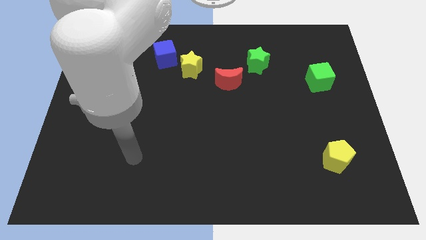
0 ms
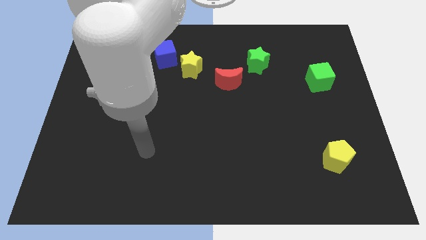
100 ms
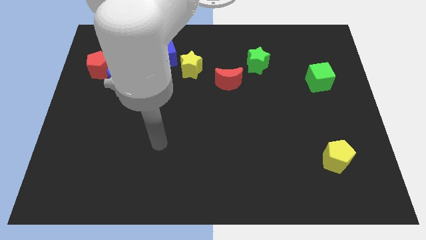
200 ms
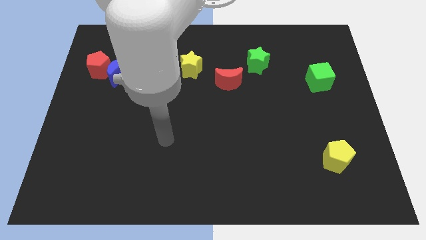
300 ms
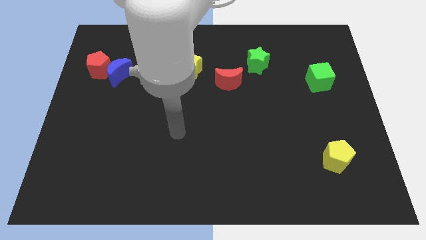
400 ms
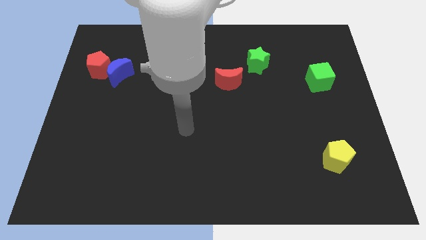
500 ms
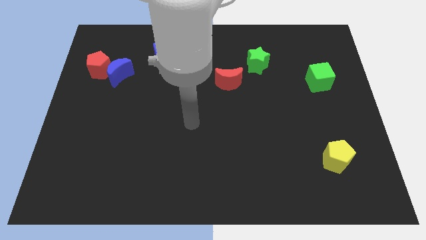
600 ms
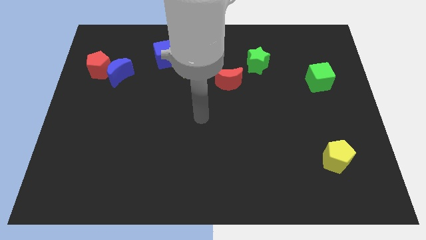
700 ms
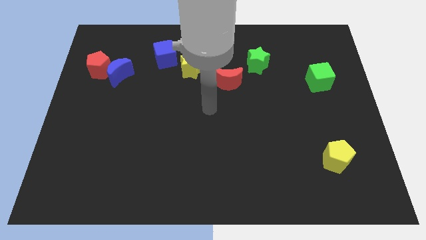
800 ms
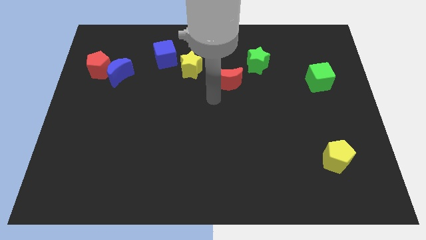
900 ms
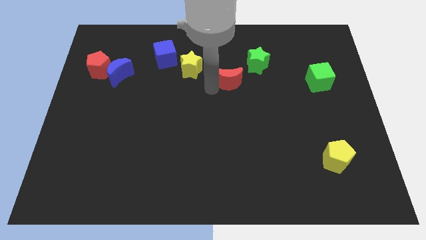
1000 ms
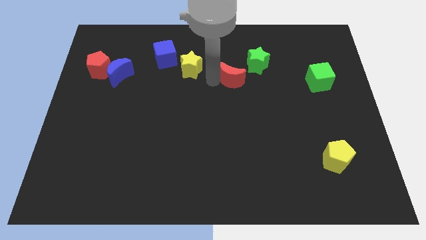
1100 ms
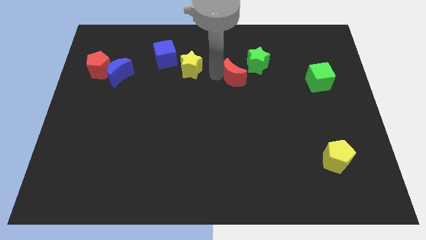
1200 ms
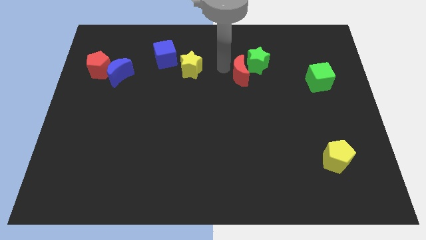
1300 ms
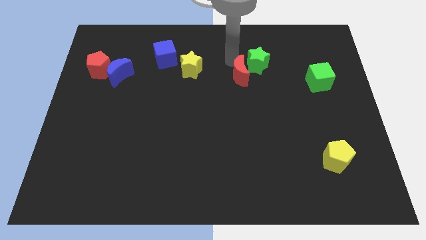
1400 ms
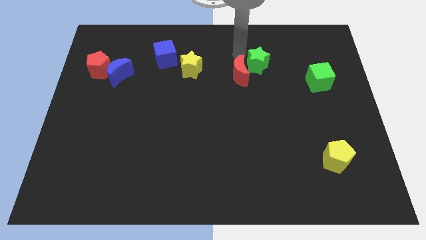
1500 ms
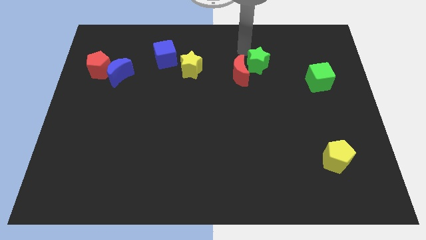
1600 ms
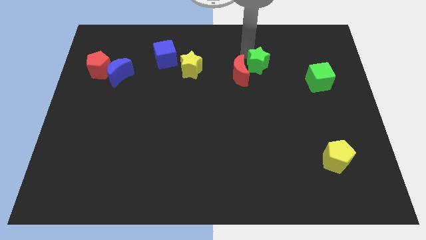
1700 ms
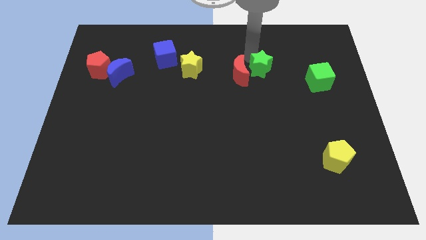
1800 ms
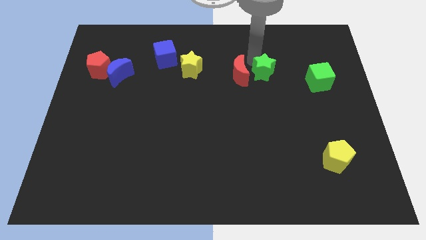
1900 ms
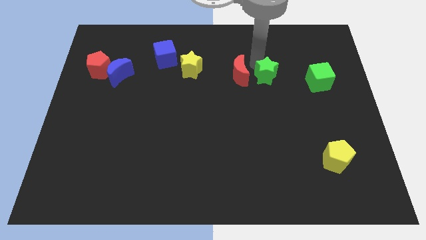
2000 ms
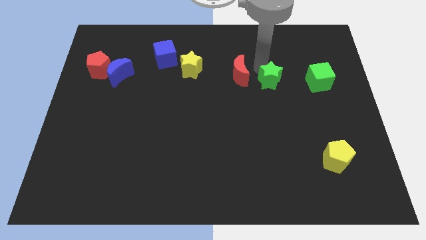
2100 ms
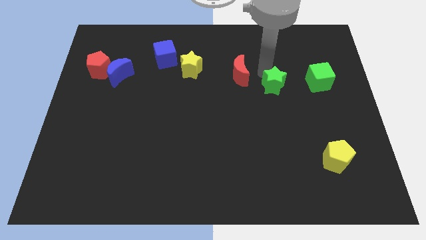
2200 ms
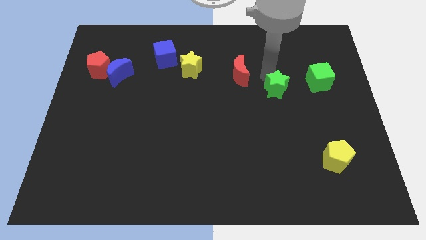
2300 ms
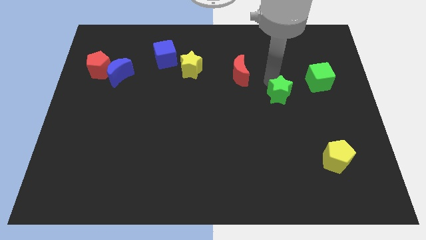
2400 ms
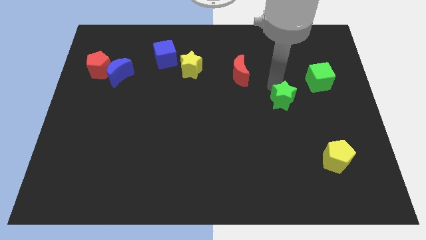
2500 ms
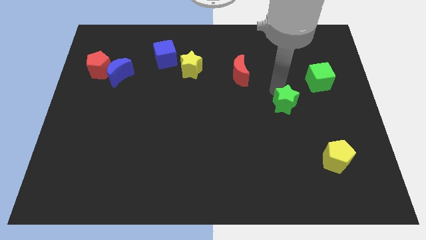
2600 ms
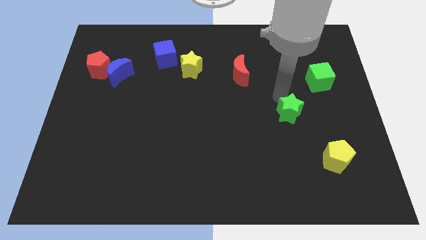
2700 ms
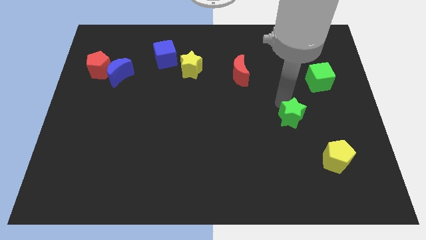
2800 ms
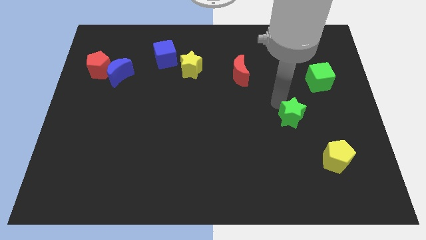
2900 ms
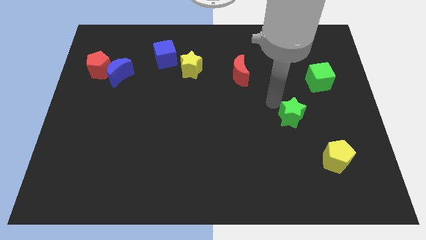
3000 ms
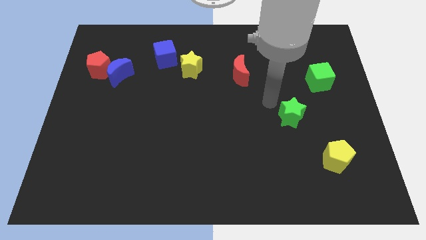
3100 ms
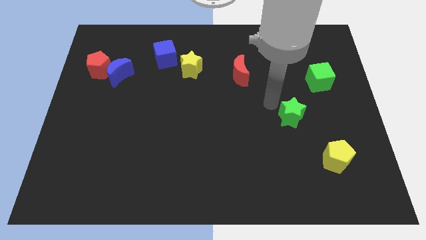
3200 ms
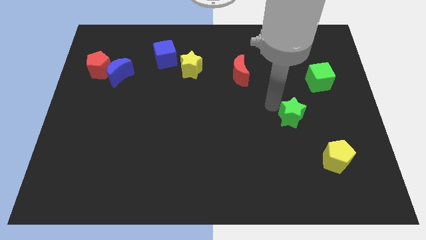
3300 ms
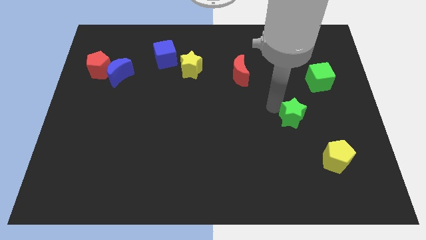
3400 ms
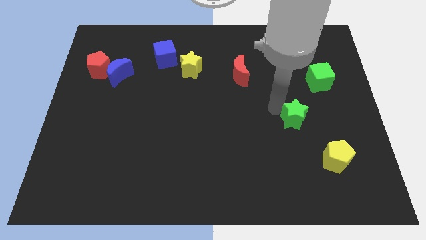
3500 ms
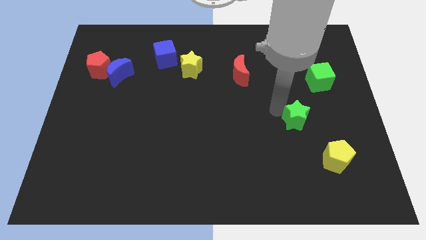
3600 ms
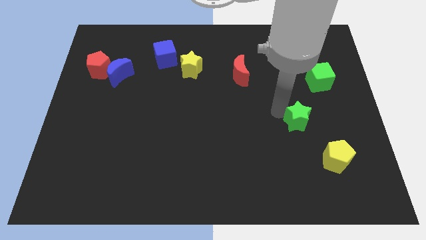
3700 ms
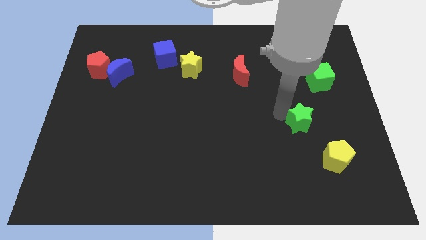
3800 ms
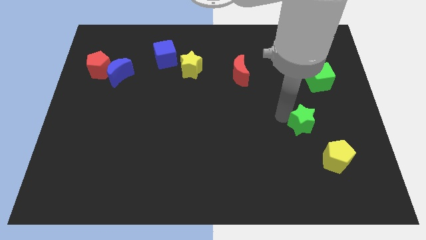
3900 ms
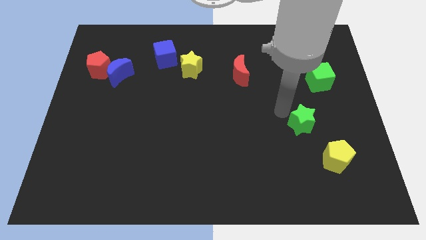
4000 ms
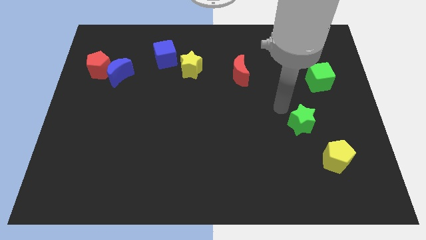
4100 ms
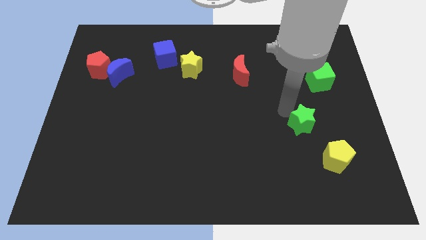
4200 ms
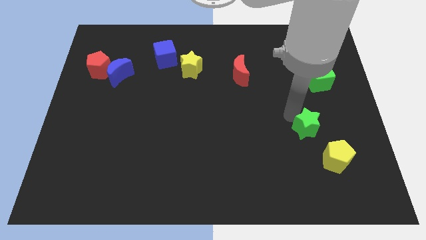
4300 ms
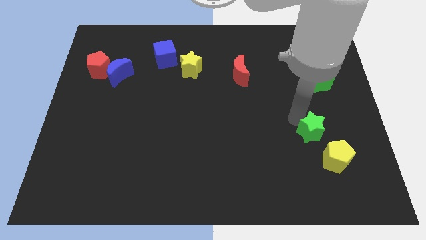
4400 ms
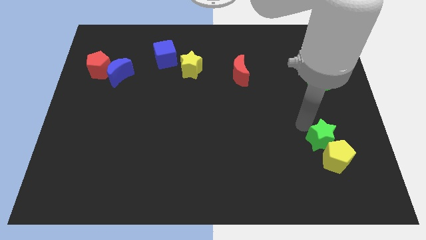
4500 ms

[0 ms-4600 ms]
move the green star next to the yellow pentagon

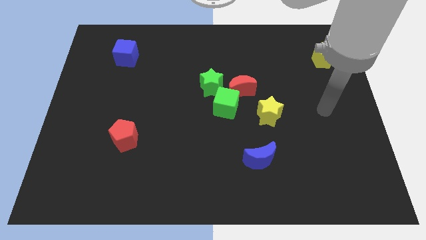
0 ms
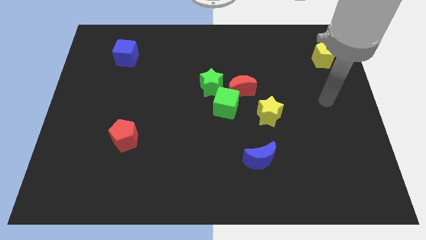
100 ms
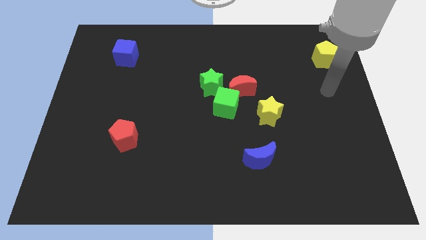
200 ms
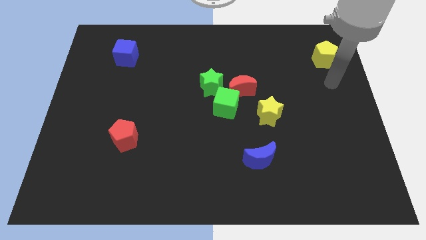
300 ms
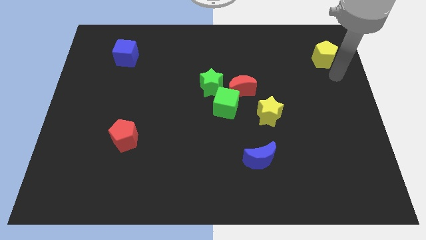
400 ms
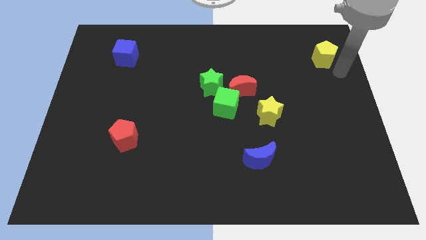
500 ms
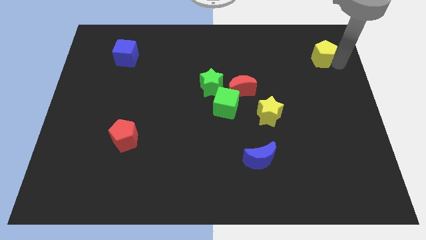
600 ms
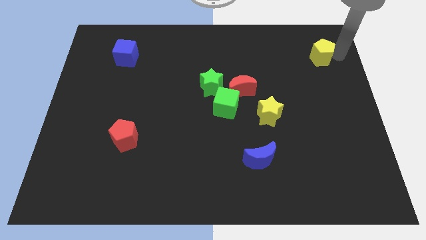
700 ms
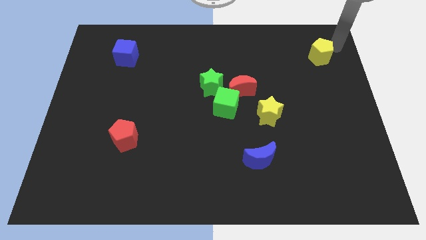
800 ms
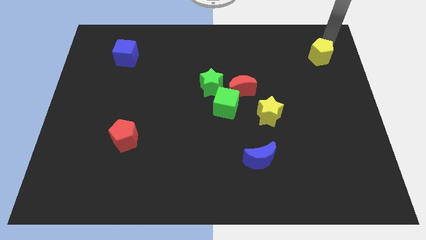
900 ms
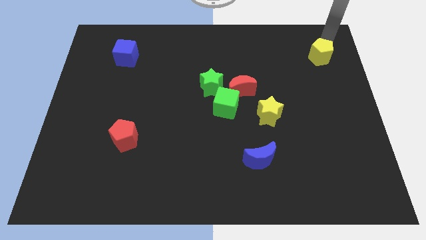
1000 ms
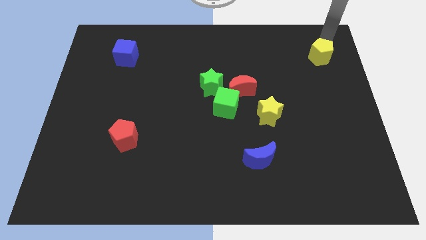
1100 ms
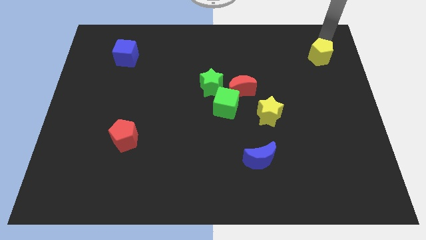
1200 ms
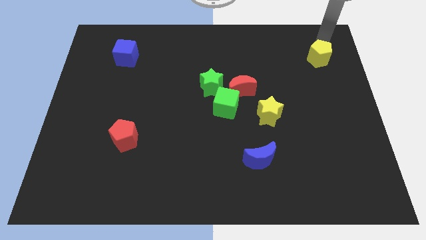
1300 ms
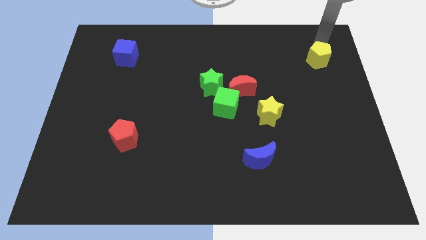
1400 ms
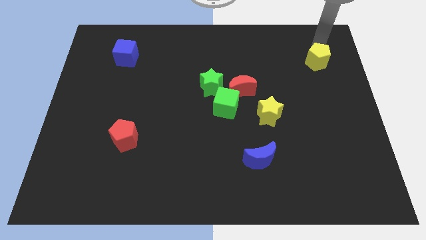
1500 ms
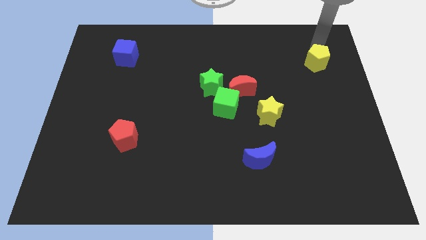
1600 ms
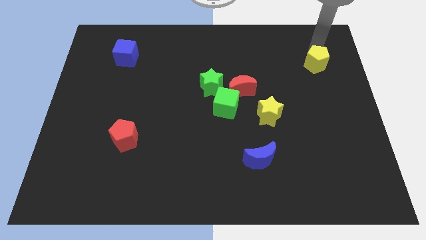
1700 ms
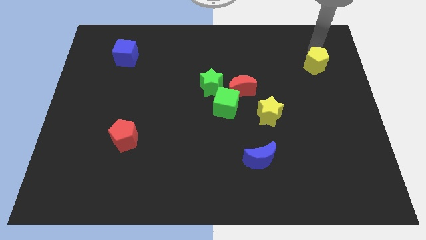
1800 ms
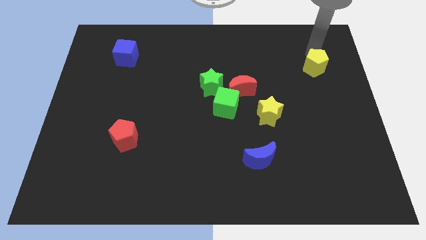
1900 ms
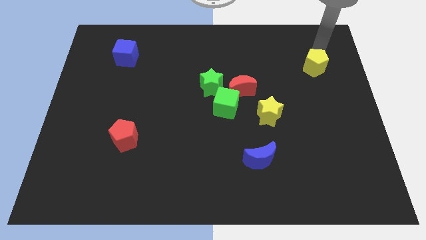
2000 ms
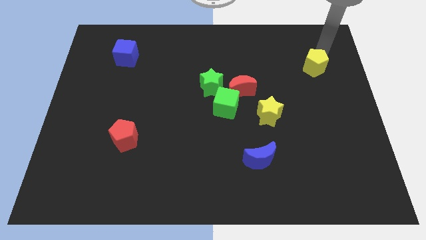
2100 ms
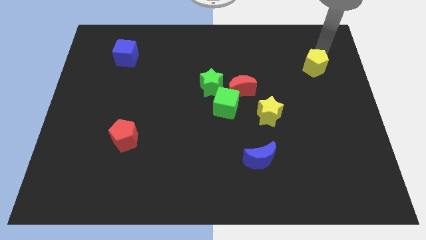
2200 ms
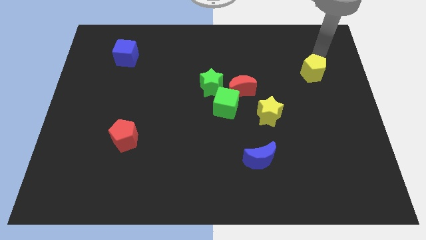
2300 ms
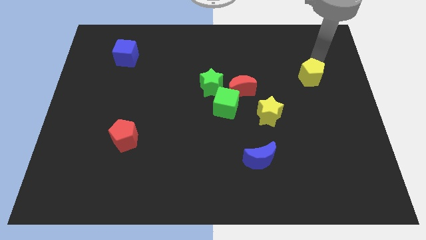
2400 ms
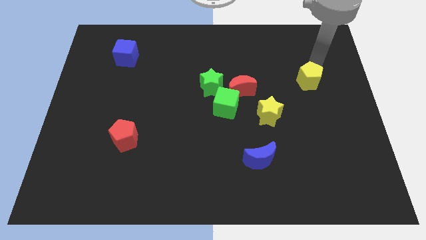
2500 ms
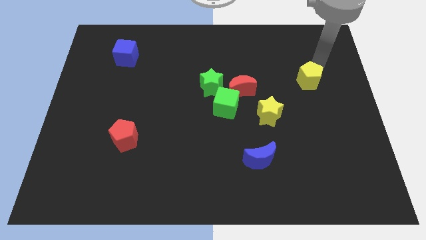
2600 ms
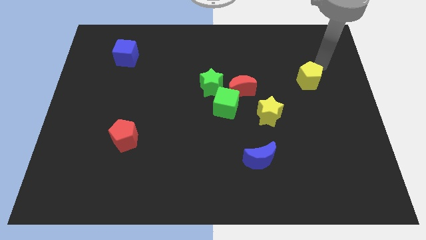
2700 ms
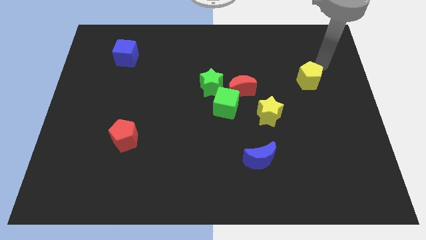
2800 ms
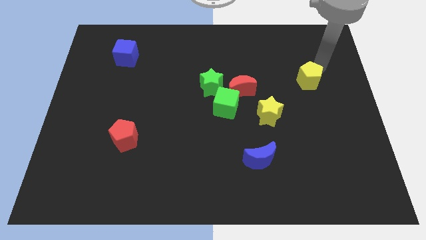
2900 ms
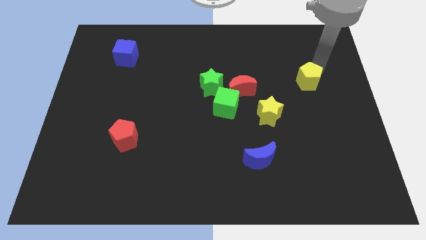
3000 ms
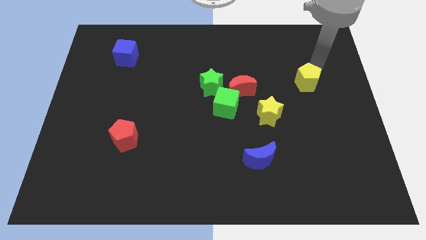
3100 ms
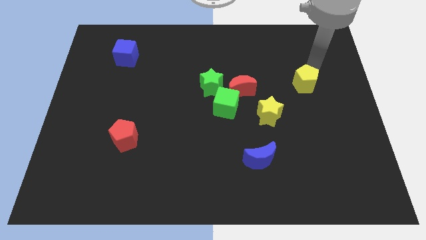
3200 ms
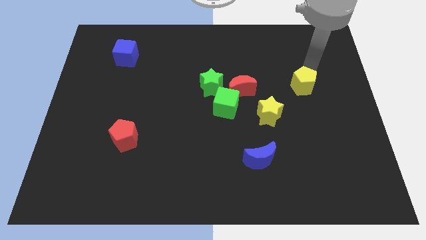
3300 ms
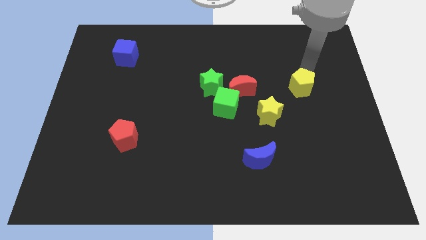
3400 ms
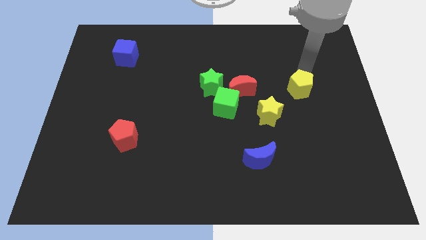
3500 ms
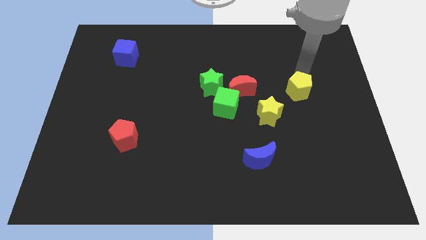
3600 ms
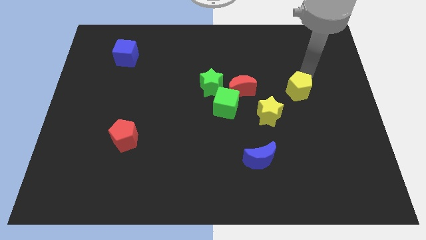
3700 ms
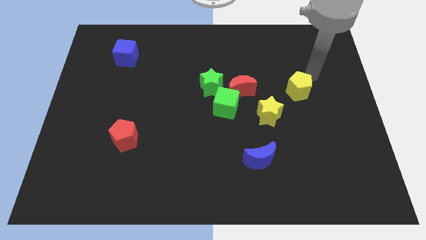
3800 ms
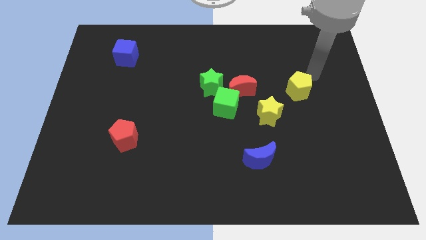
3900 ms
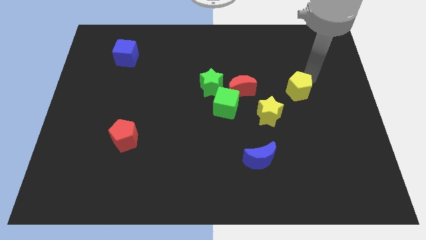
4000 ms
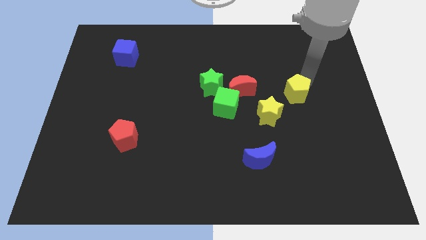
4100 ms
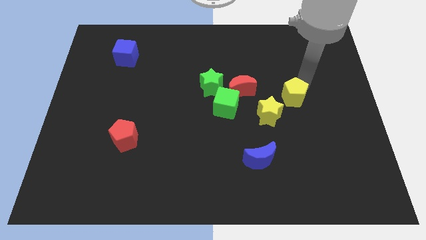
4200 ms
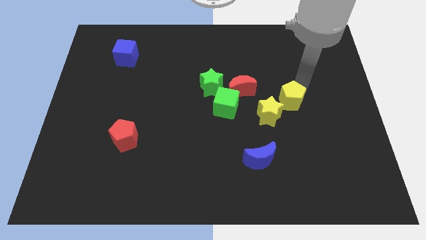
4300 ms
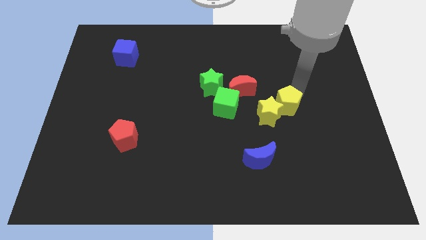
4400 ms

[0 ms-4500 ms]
push the yellow pentagon next to the yellow star
